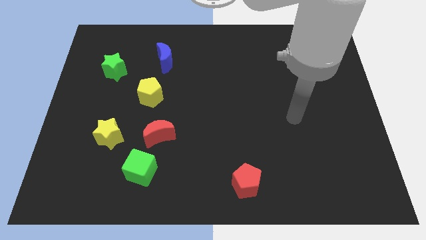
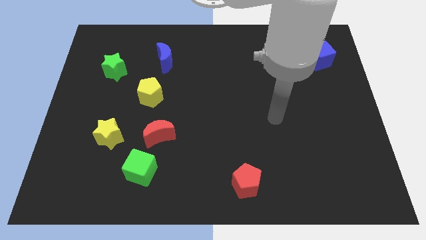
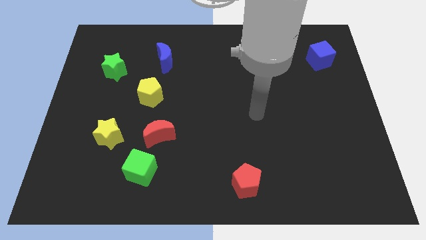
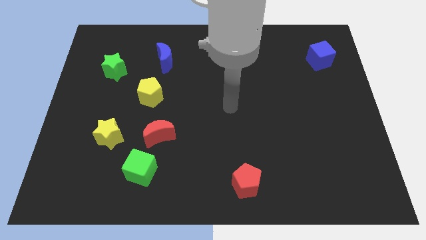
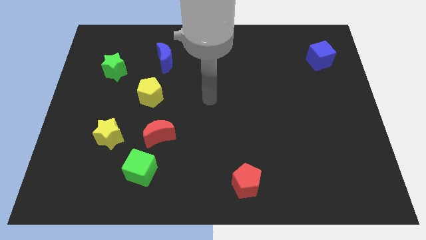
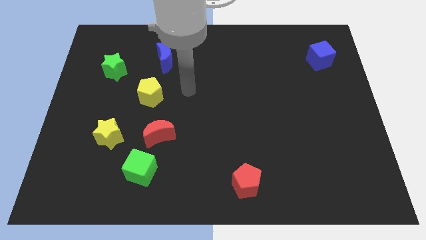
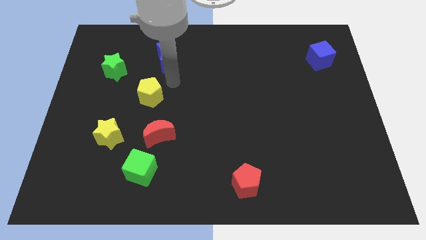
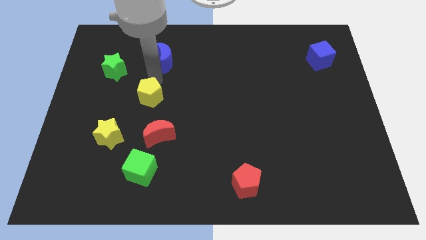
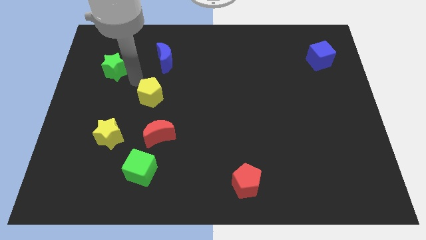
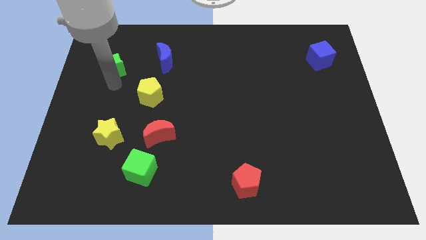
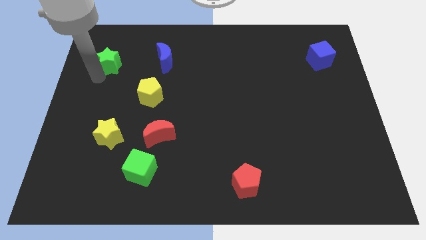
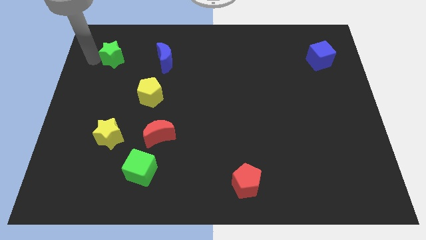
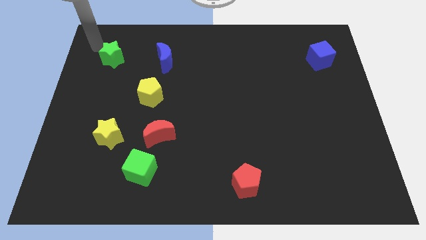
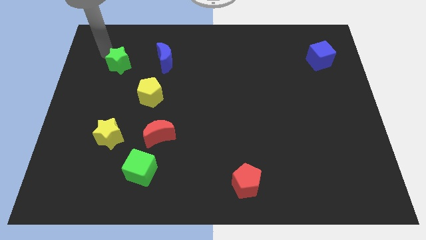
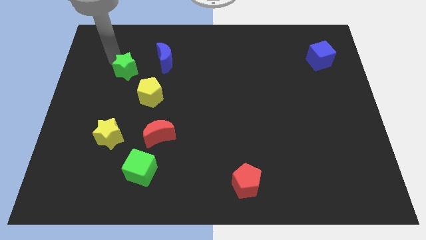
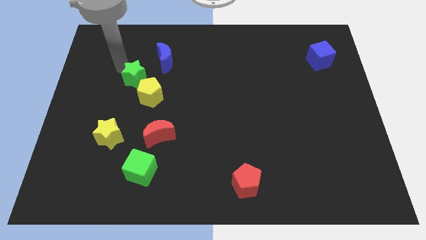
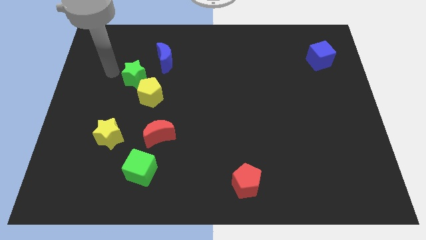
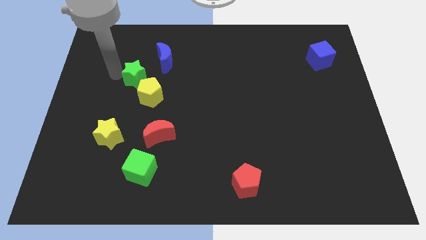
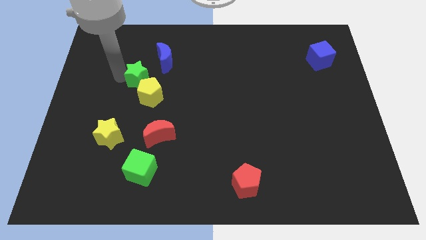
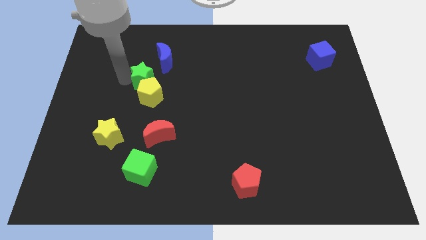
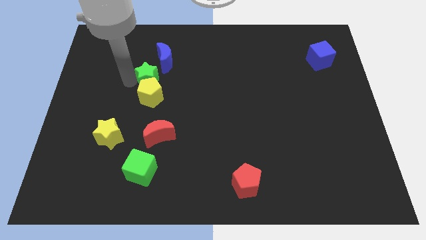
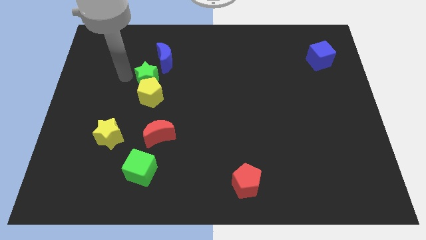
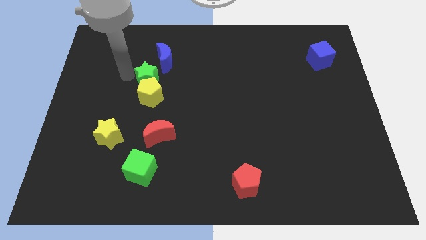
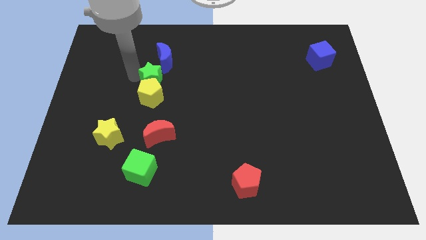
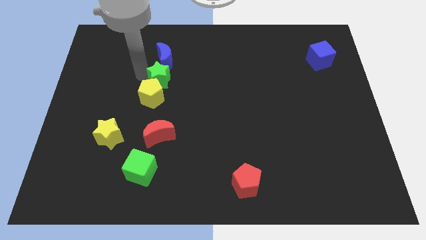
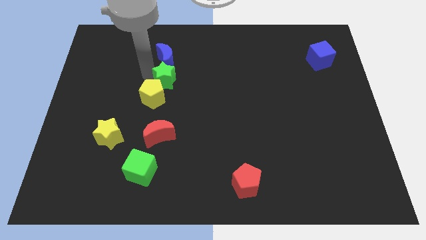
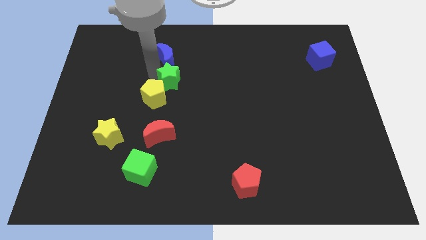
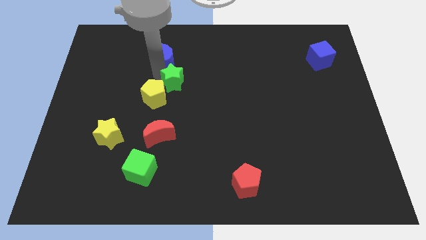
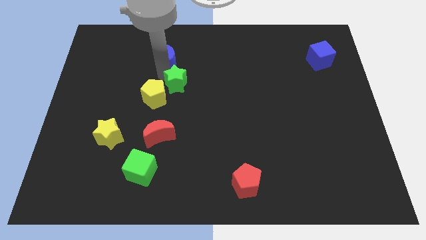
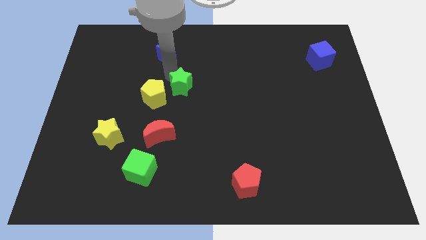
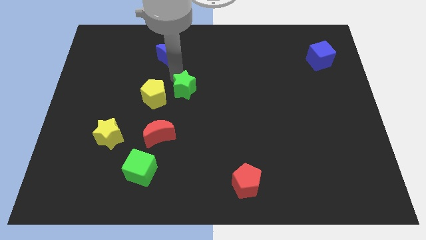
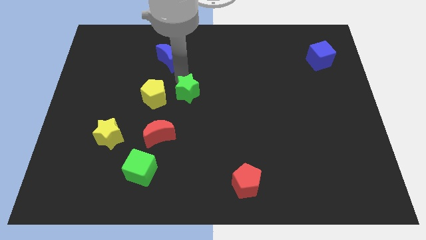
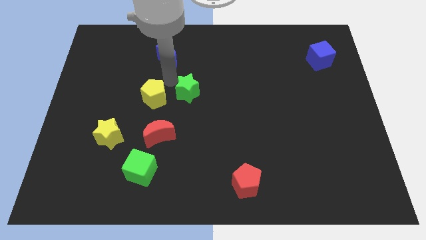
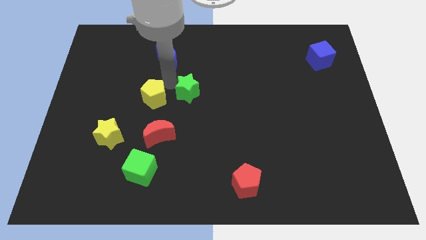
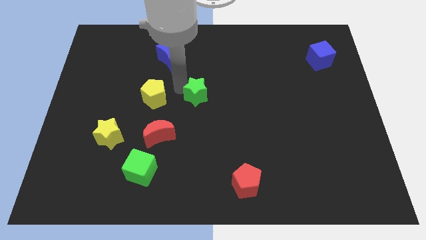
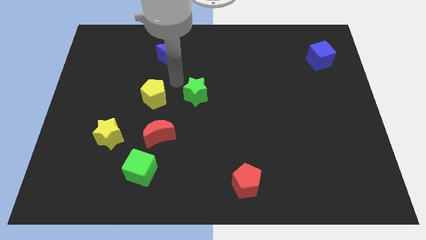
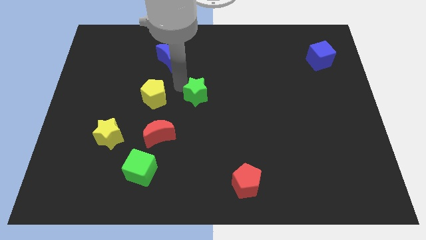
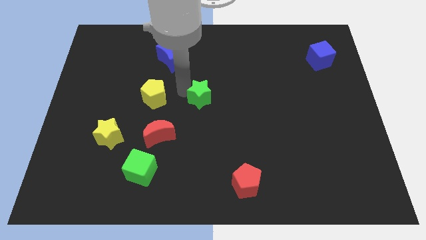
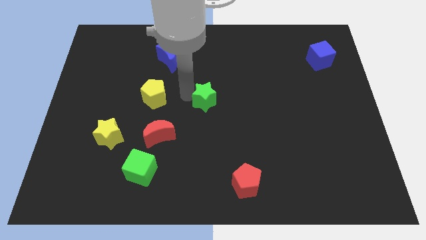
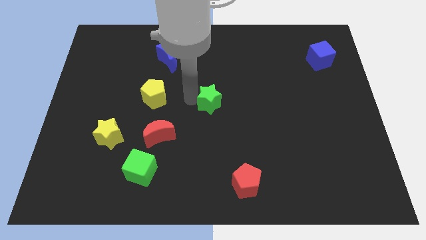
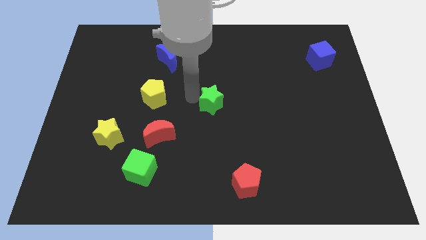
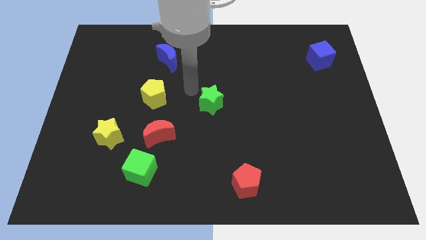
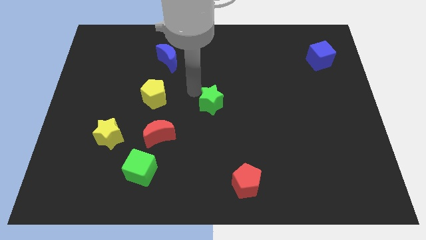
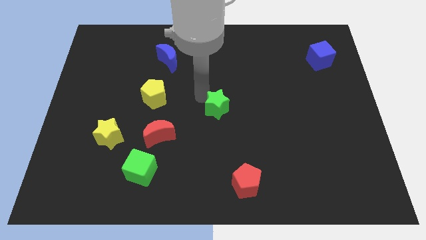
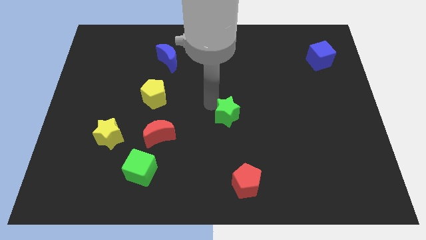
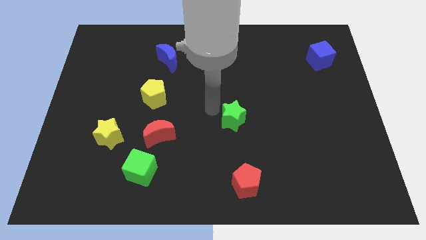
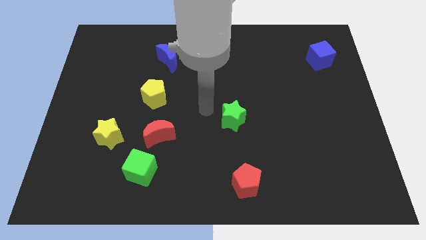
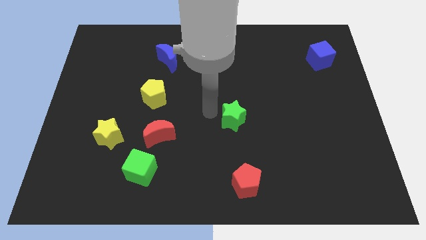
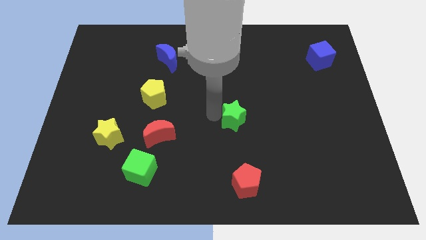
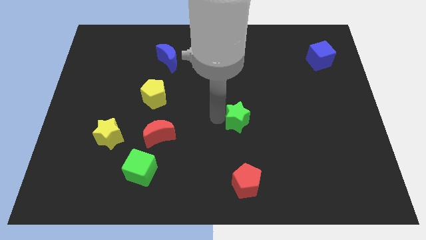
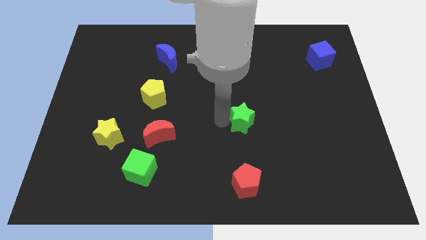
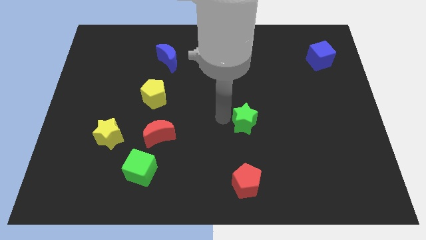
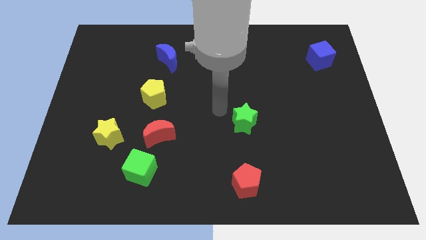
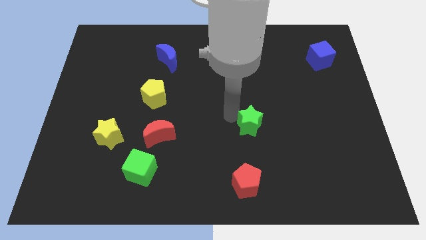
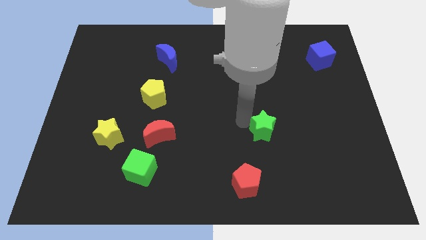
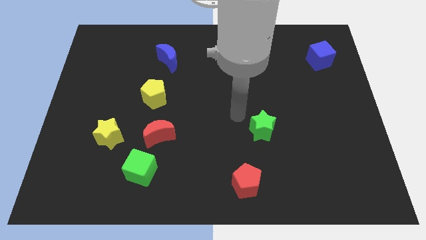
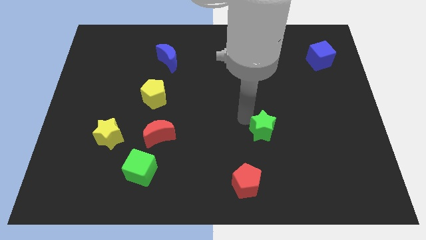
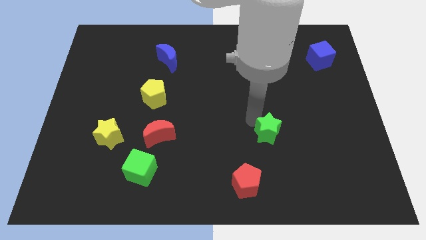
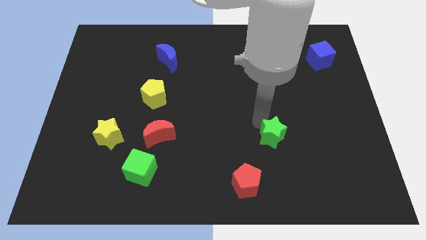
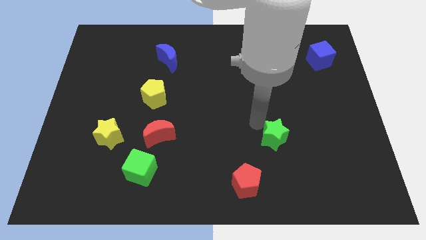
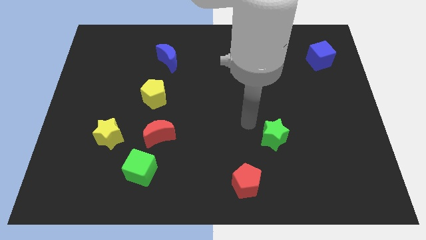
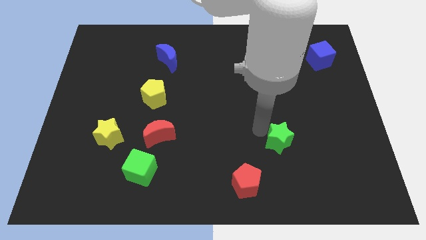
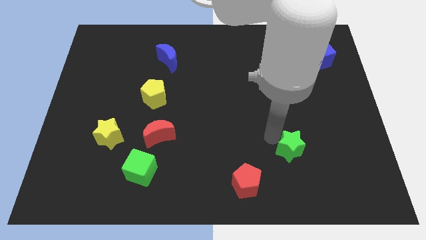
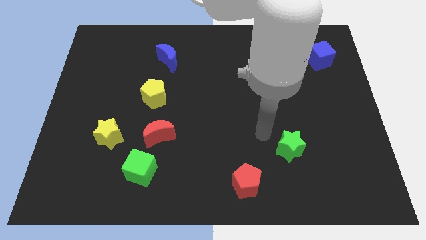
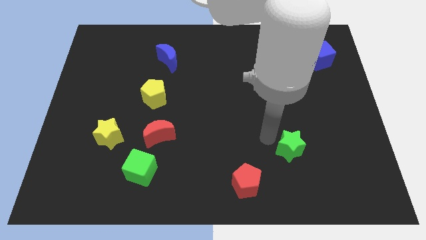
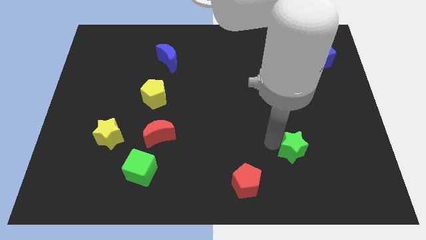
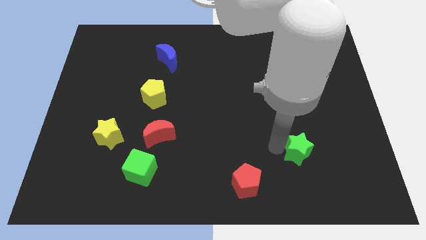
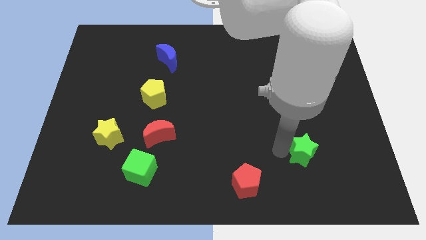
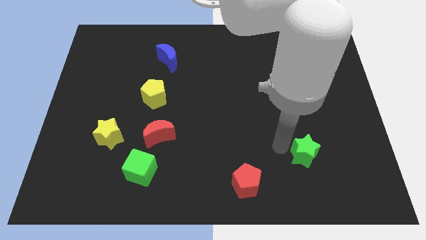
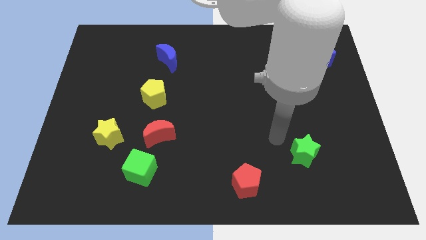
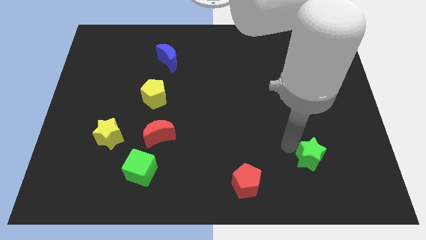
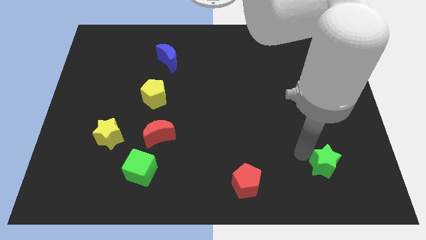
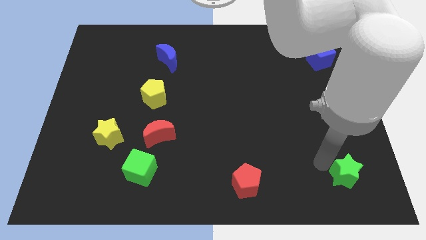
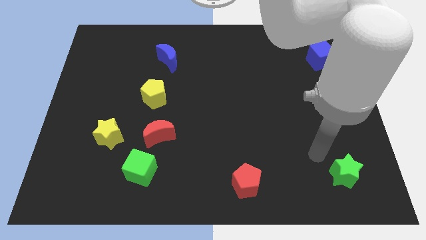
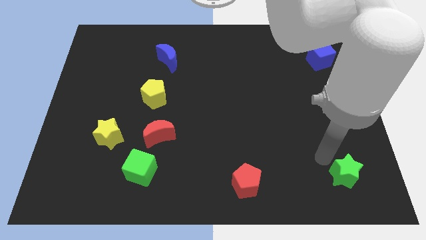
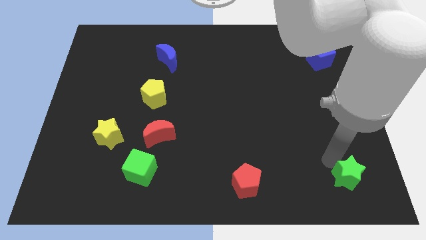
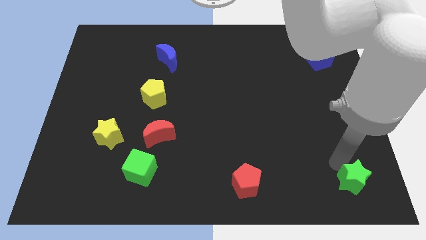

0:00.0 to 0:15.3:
move the green star to the bottom right corner
